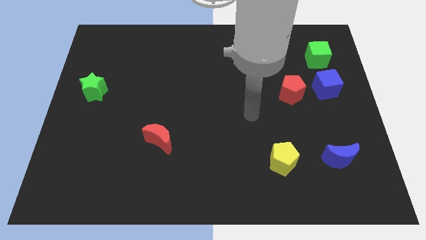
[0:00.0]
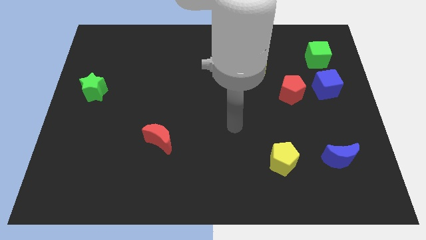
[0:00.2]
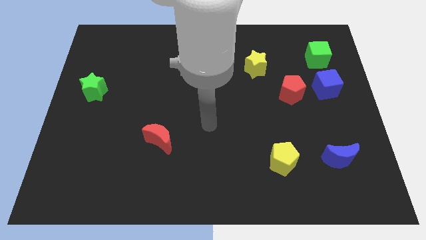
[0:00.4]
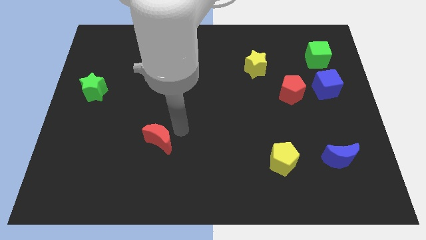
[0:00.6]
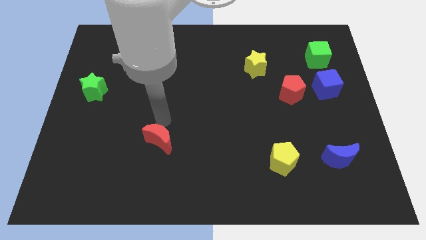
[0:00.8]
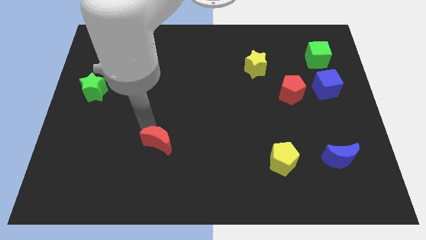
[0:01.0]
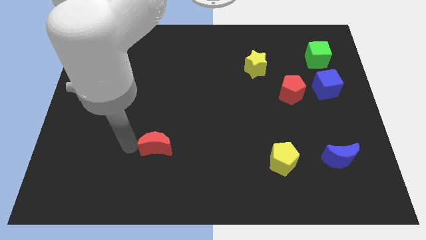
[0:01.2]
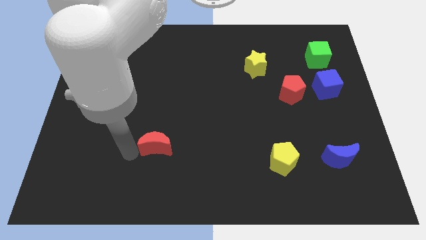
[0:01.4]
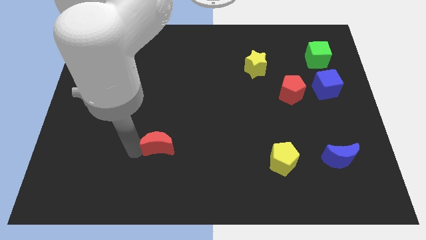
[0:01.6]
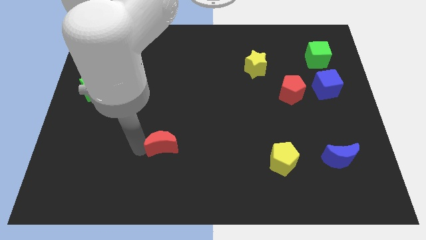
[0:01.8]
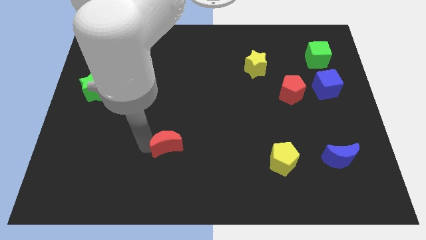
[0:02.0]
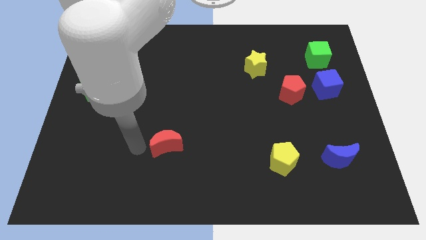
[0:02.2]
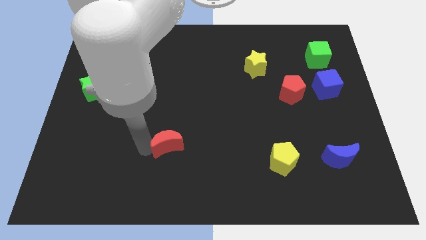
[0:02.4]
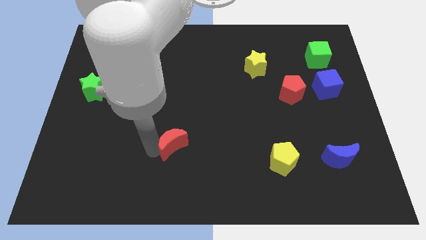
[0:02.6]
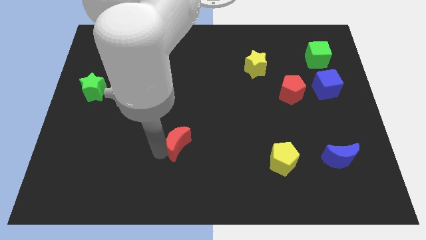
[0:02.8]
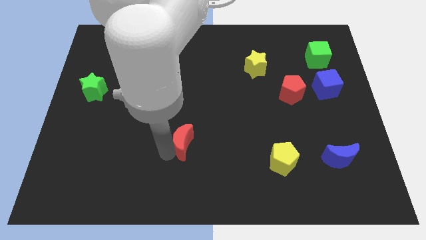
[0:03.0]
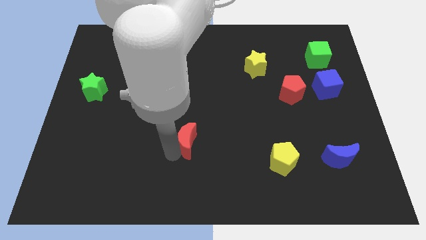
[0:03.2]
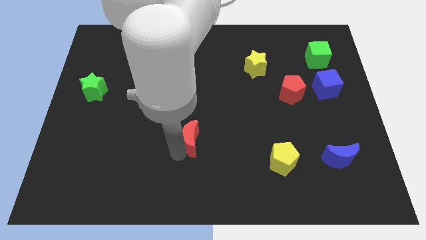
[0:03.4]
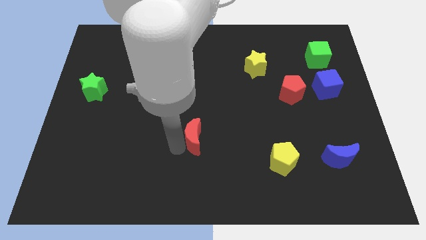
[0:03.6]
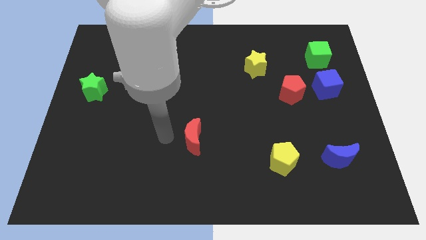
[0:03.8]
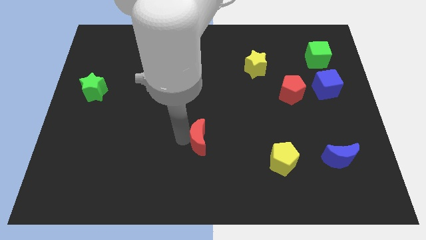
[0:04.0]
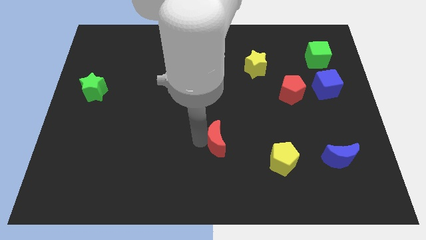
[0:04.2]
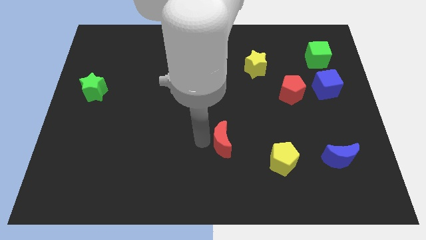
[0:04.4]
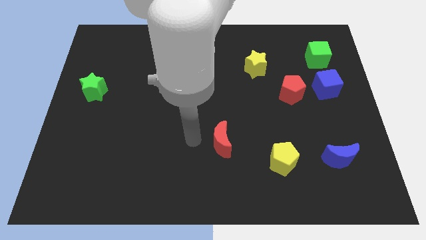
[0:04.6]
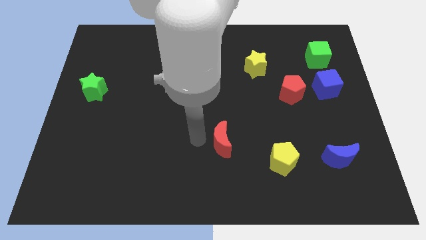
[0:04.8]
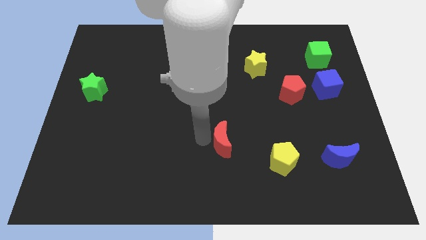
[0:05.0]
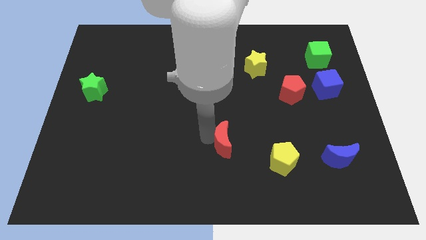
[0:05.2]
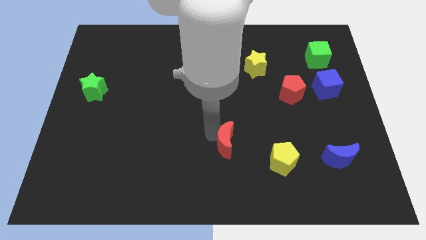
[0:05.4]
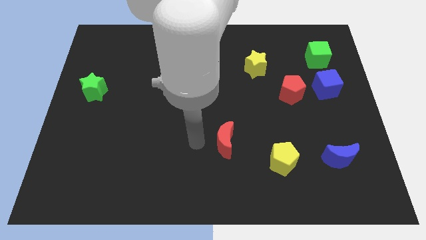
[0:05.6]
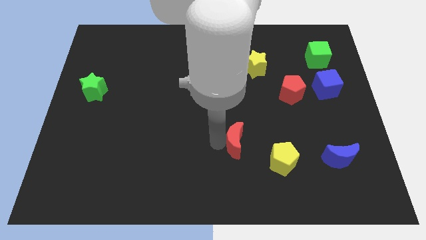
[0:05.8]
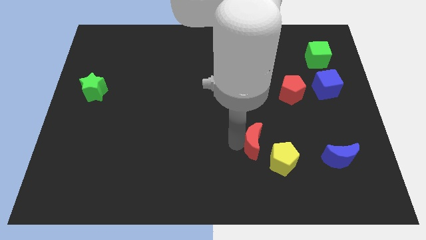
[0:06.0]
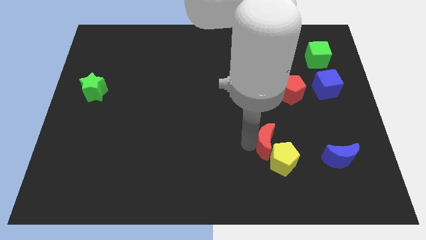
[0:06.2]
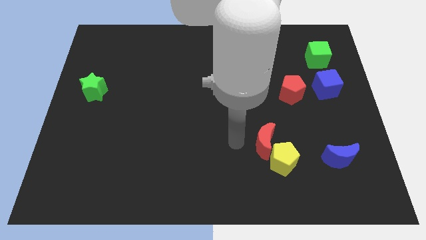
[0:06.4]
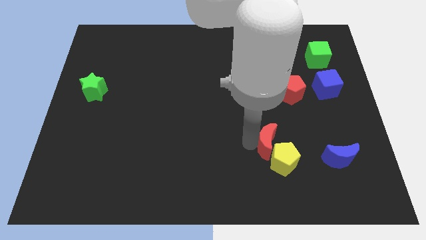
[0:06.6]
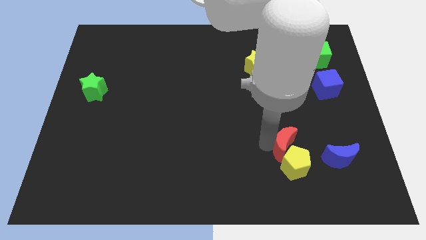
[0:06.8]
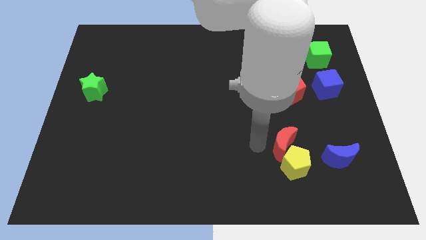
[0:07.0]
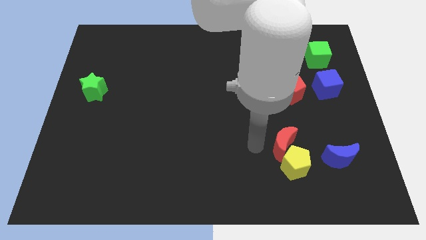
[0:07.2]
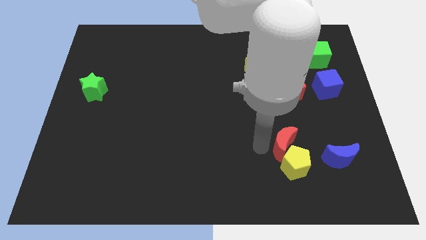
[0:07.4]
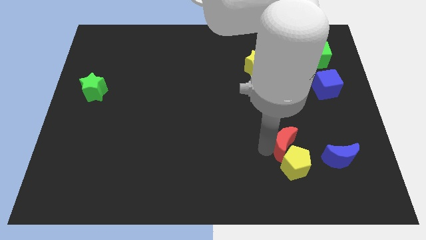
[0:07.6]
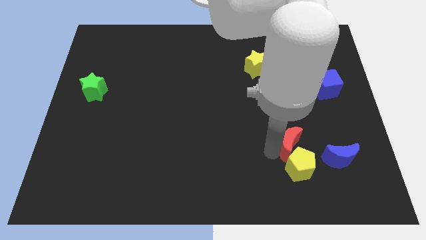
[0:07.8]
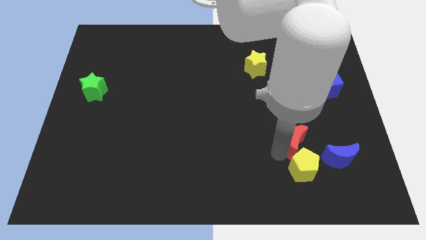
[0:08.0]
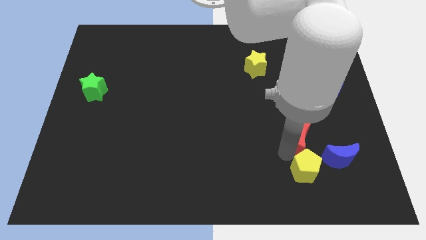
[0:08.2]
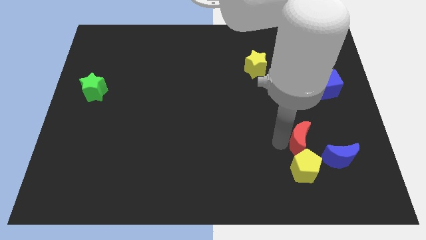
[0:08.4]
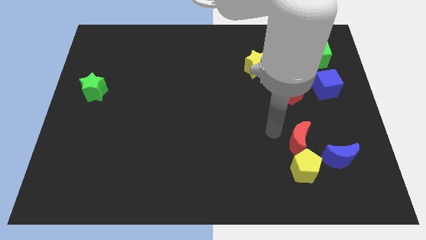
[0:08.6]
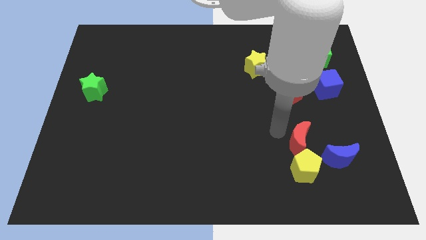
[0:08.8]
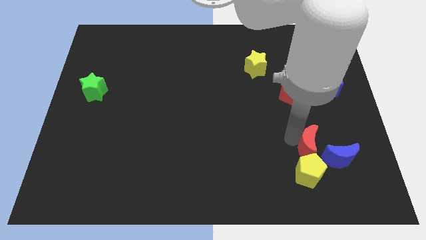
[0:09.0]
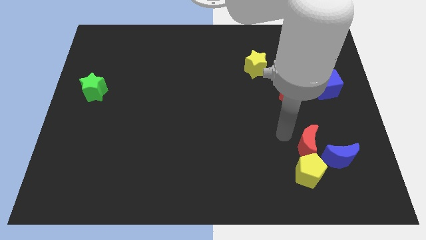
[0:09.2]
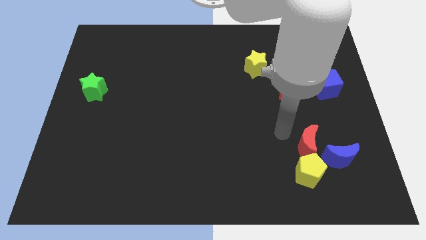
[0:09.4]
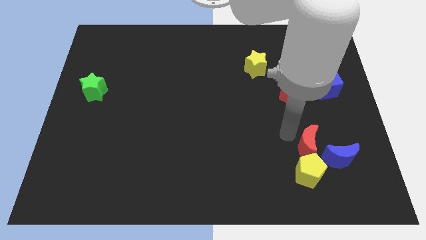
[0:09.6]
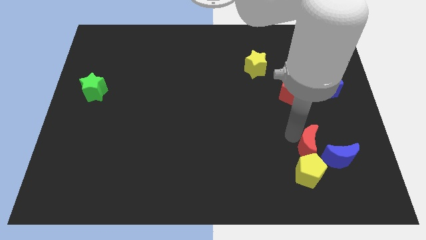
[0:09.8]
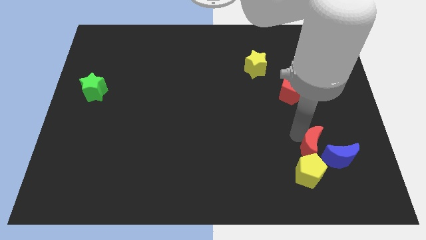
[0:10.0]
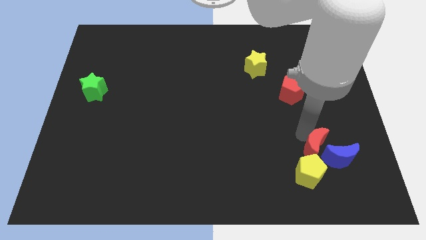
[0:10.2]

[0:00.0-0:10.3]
push the red moon towards the blue moon

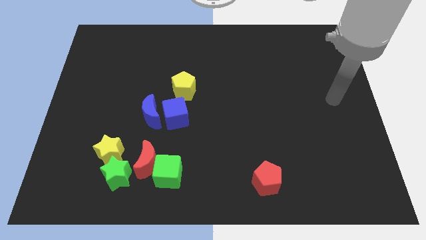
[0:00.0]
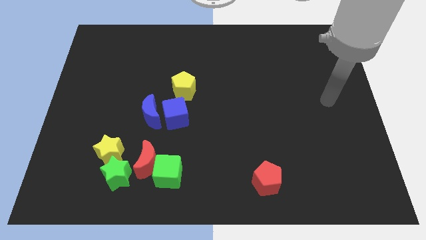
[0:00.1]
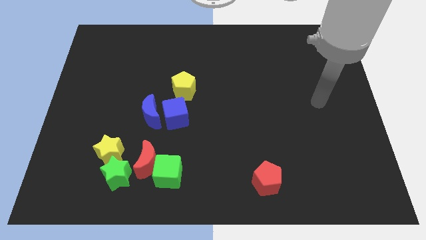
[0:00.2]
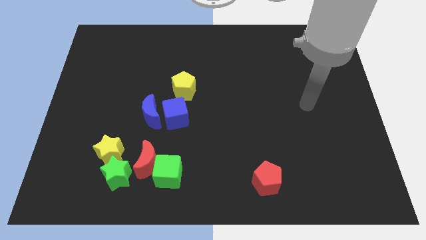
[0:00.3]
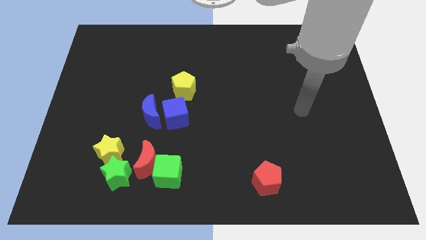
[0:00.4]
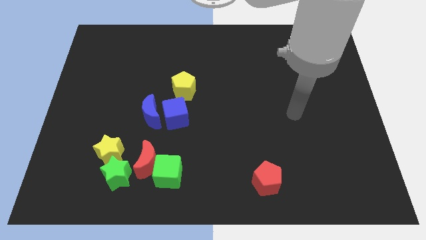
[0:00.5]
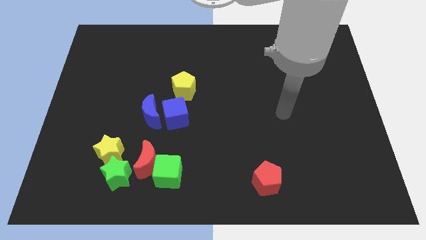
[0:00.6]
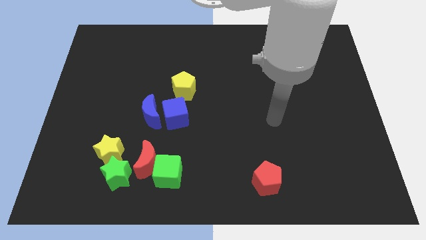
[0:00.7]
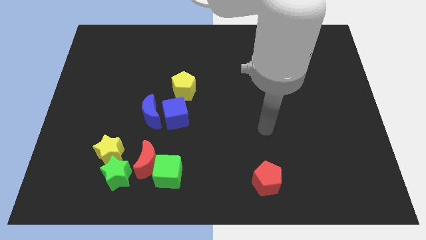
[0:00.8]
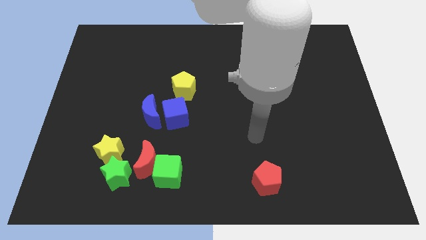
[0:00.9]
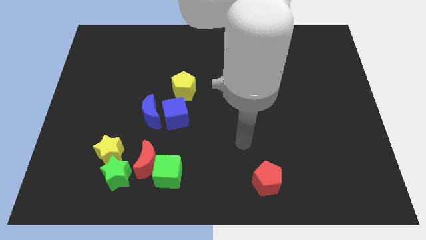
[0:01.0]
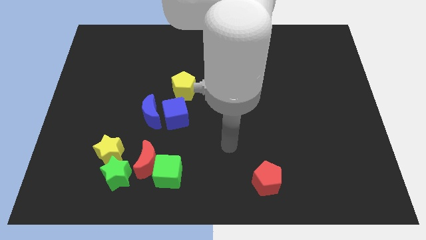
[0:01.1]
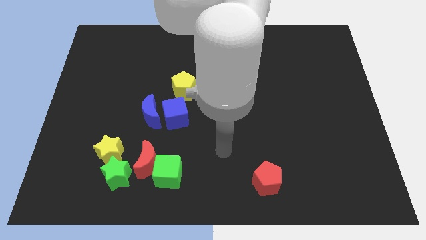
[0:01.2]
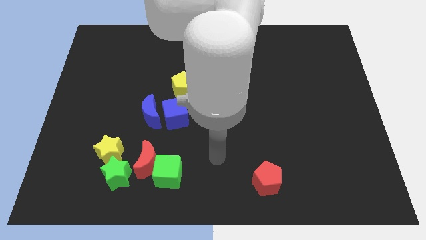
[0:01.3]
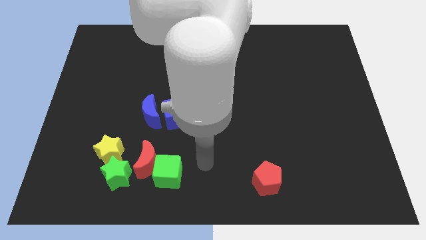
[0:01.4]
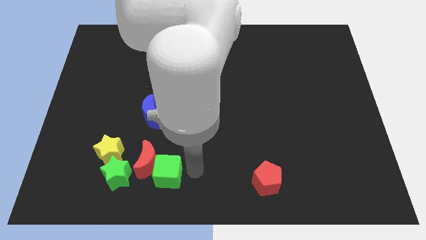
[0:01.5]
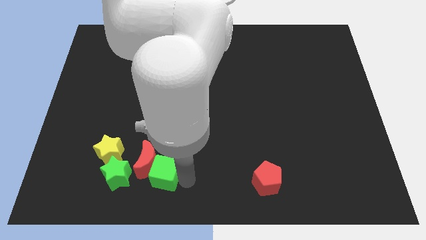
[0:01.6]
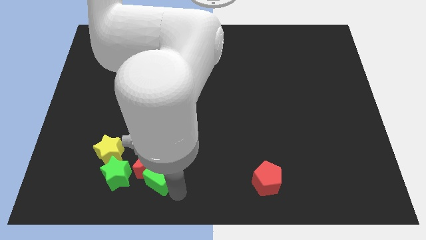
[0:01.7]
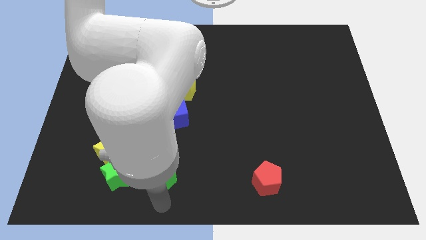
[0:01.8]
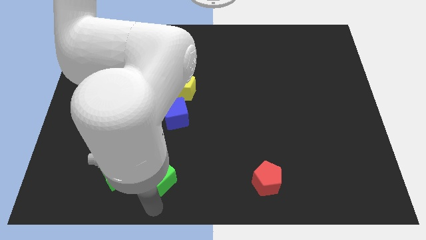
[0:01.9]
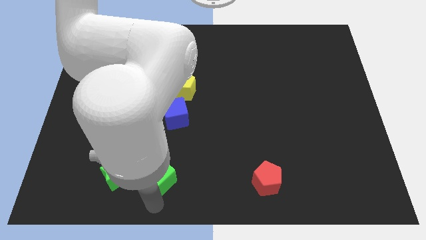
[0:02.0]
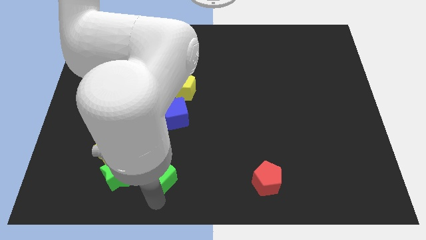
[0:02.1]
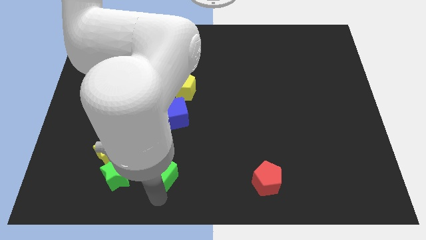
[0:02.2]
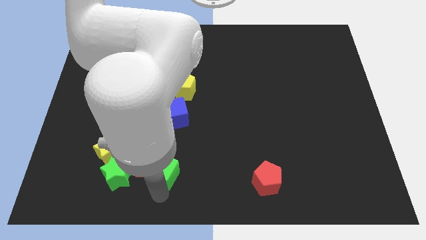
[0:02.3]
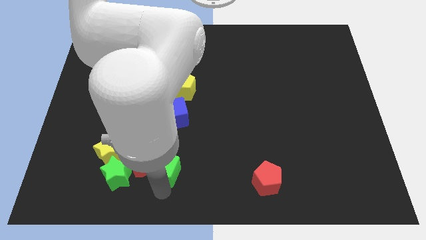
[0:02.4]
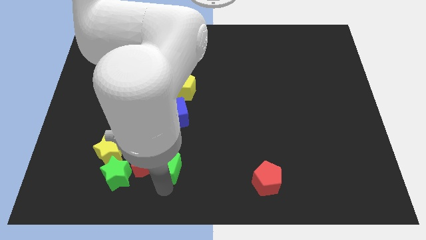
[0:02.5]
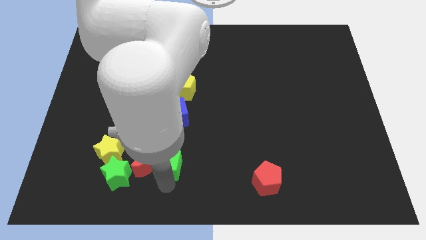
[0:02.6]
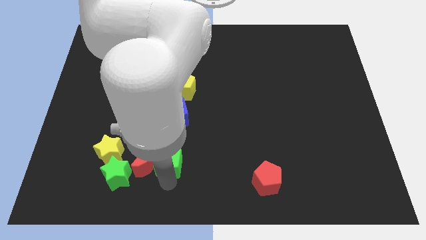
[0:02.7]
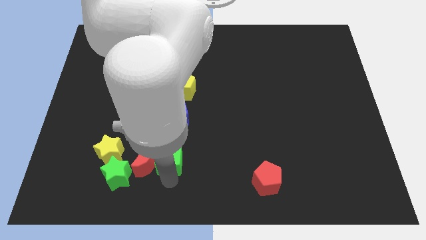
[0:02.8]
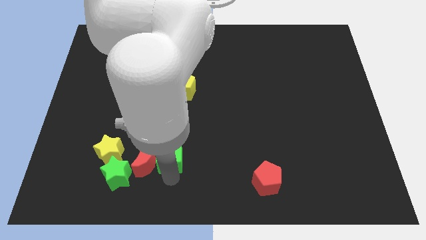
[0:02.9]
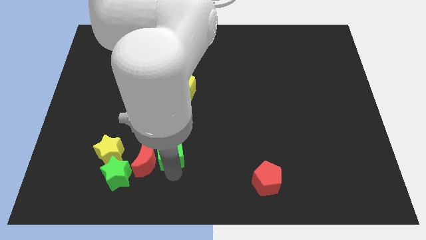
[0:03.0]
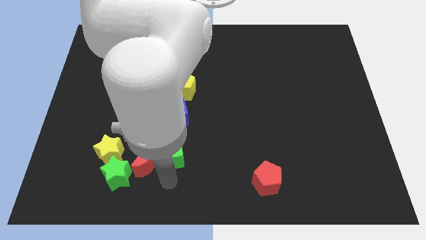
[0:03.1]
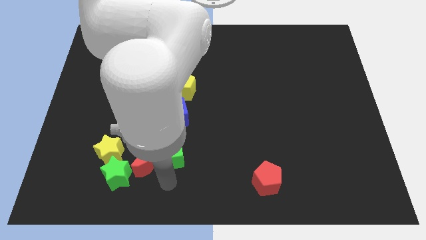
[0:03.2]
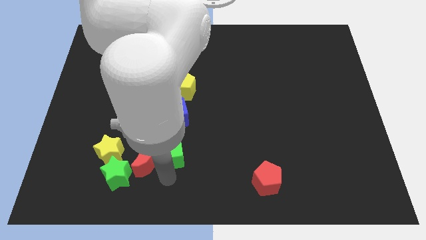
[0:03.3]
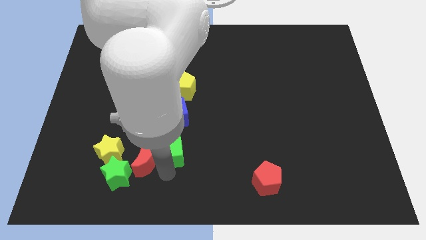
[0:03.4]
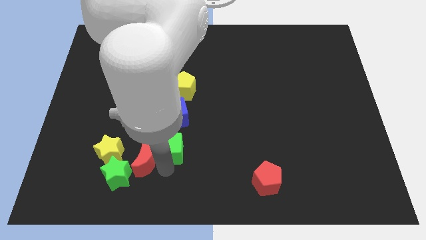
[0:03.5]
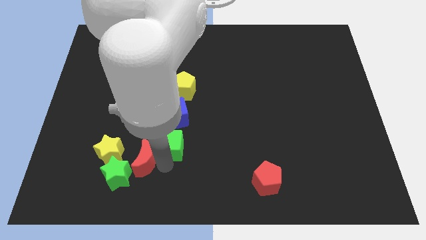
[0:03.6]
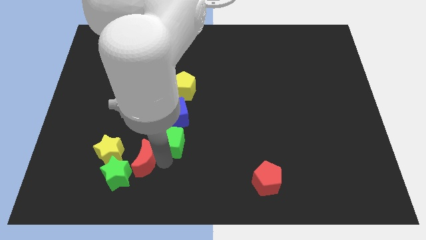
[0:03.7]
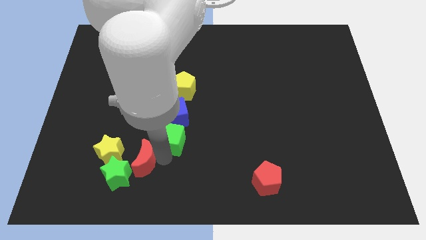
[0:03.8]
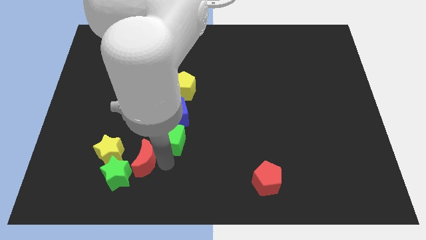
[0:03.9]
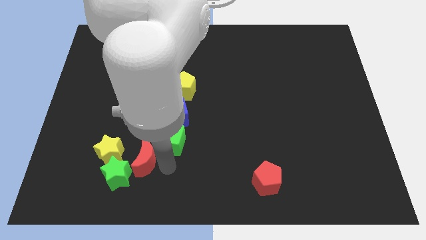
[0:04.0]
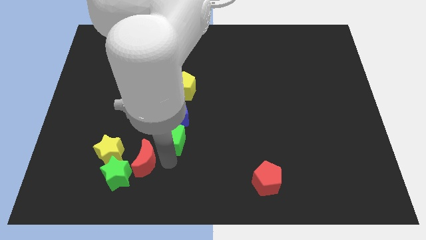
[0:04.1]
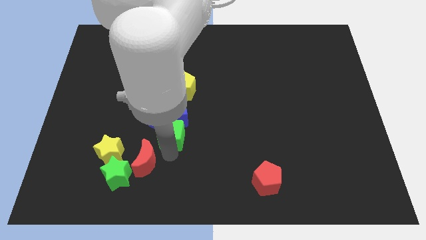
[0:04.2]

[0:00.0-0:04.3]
move the green cube close to the blue cube
